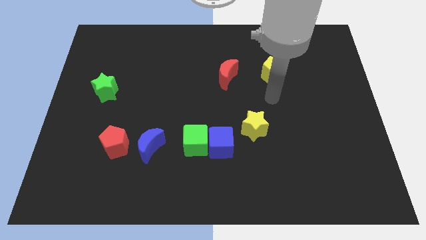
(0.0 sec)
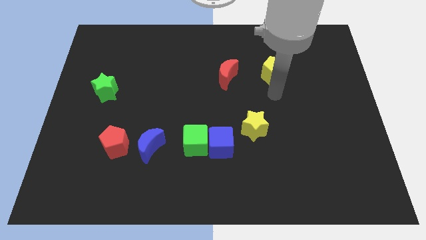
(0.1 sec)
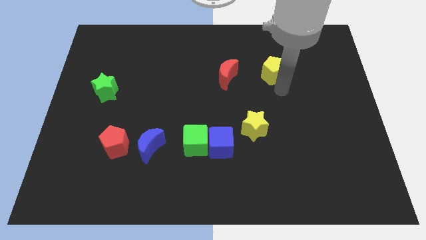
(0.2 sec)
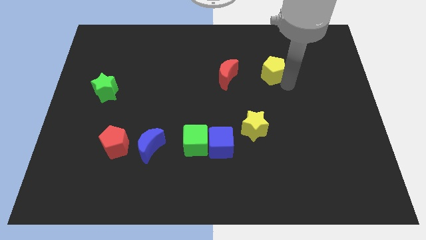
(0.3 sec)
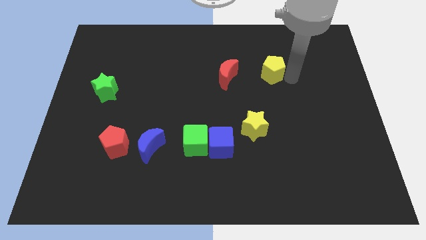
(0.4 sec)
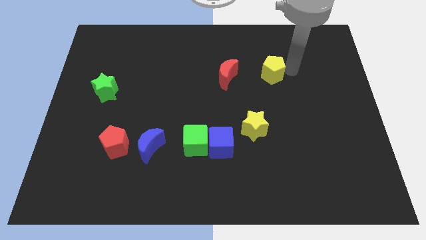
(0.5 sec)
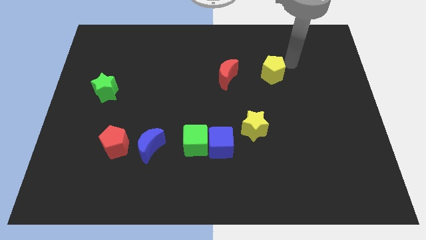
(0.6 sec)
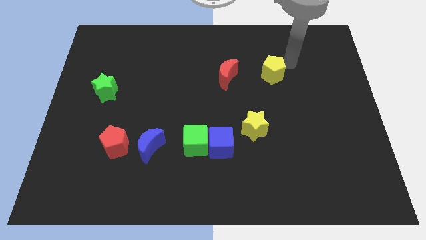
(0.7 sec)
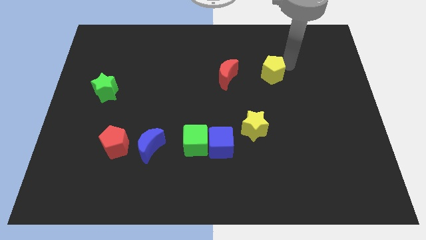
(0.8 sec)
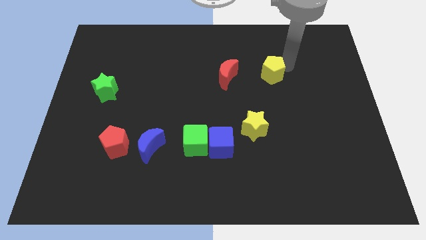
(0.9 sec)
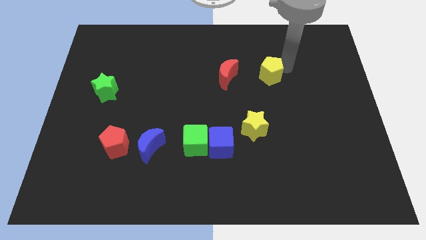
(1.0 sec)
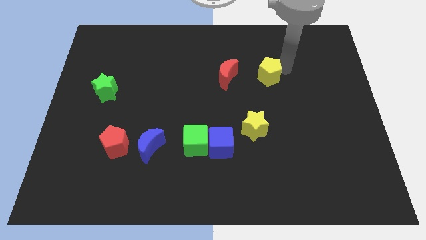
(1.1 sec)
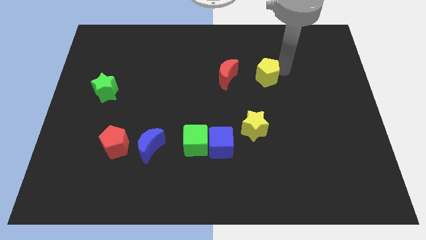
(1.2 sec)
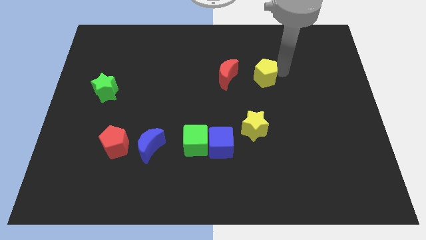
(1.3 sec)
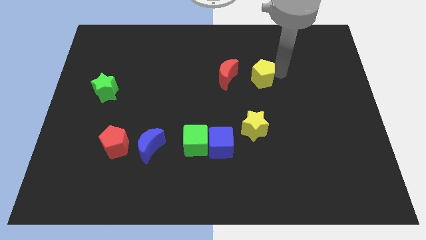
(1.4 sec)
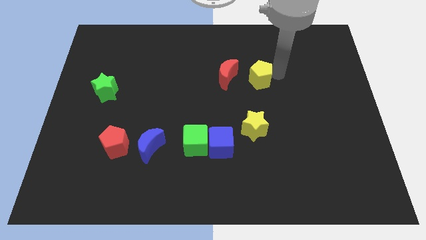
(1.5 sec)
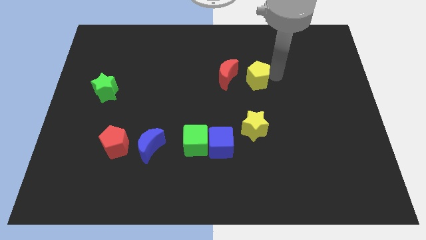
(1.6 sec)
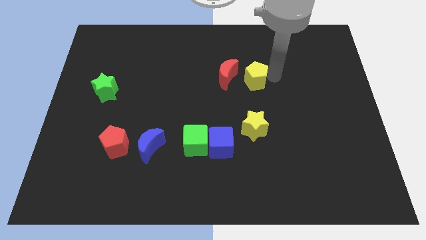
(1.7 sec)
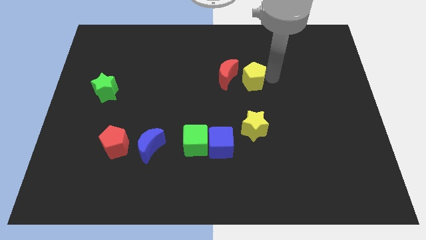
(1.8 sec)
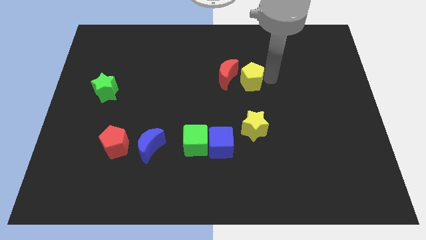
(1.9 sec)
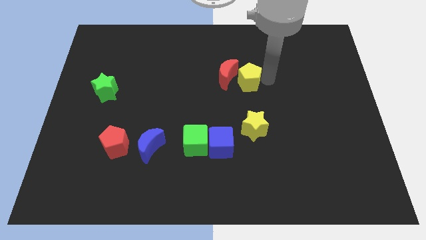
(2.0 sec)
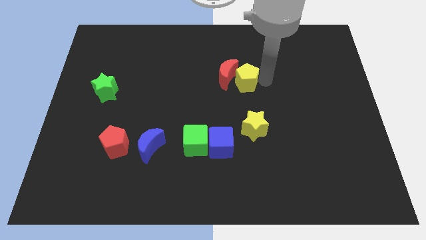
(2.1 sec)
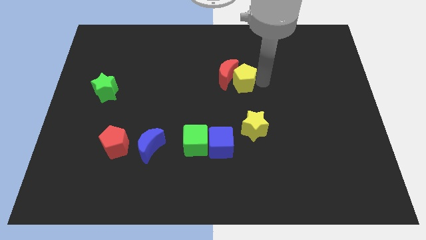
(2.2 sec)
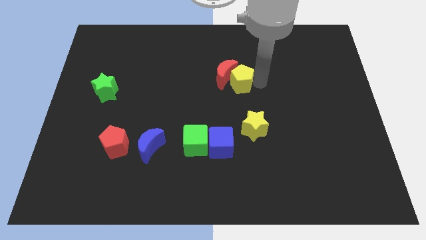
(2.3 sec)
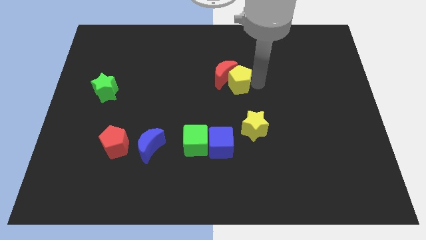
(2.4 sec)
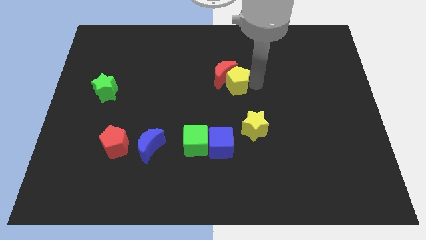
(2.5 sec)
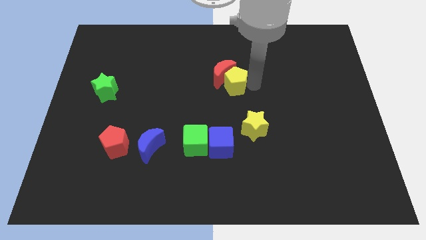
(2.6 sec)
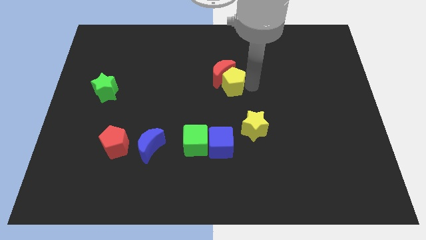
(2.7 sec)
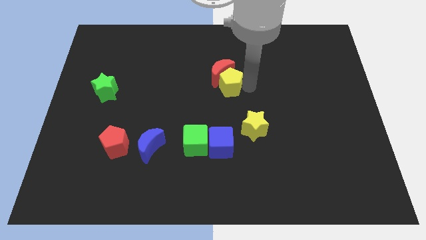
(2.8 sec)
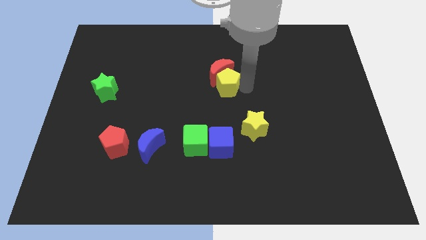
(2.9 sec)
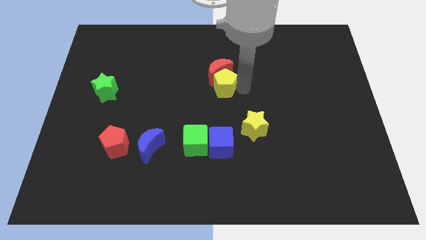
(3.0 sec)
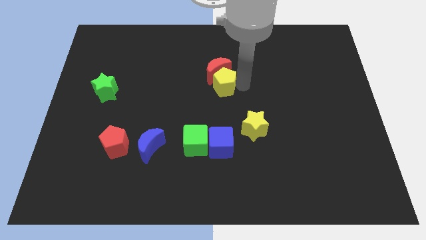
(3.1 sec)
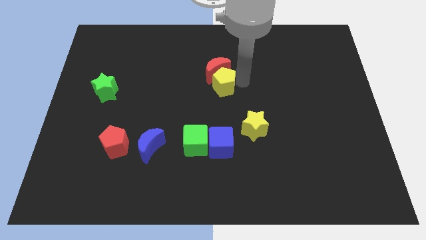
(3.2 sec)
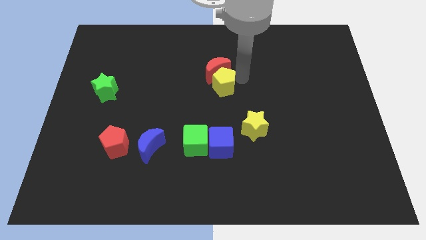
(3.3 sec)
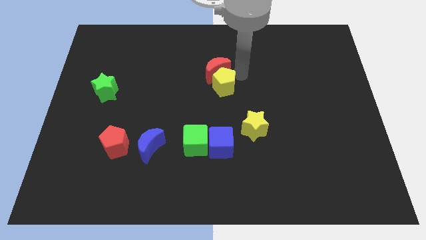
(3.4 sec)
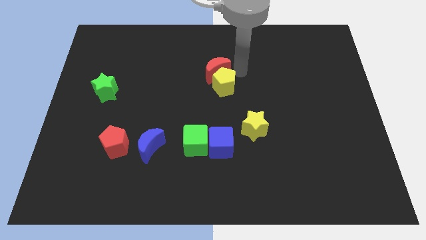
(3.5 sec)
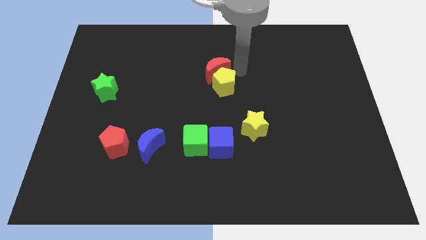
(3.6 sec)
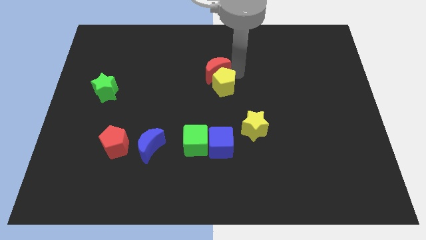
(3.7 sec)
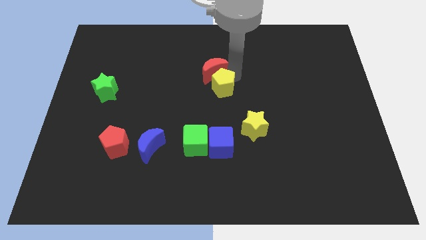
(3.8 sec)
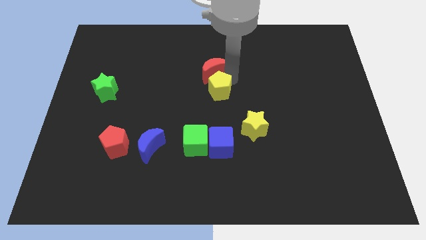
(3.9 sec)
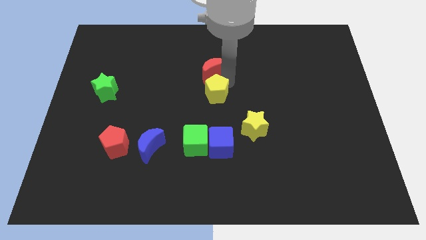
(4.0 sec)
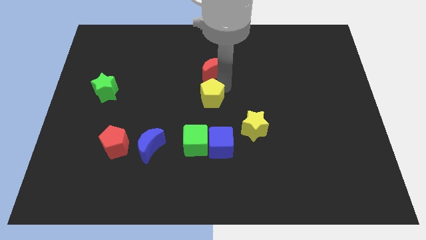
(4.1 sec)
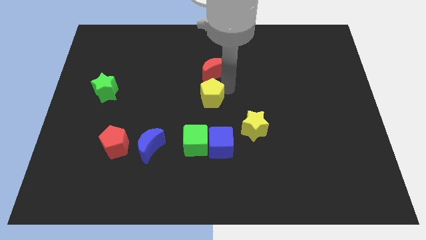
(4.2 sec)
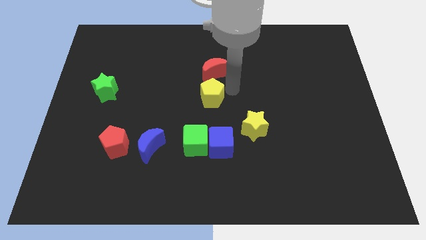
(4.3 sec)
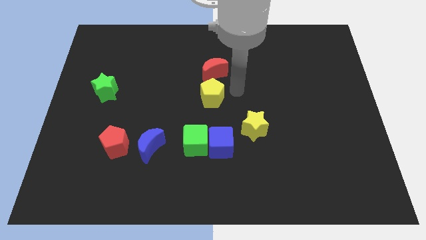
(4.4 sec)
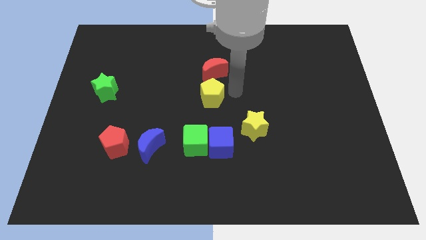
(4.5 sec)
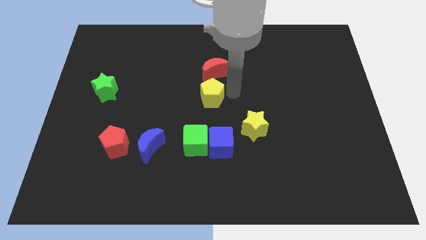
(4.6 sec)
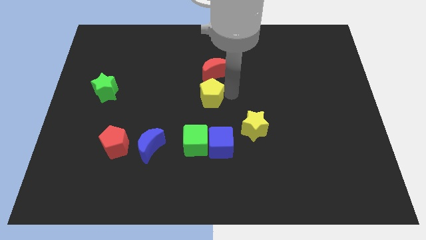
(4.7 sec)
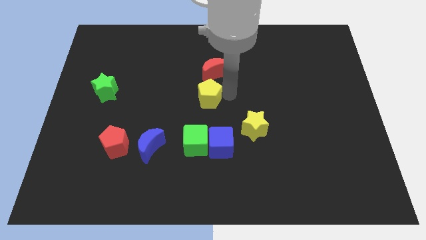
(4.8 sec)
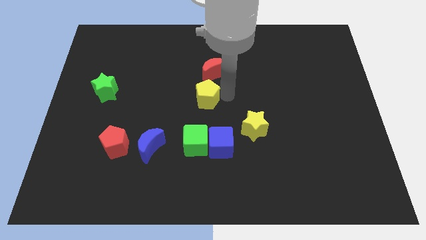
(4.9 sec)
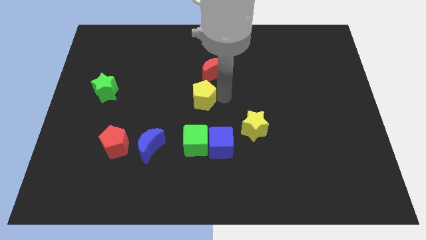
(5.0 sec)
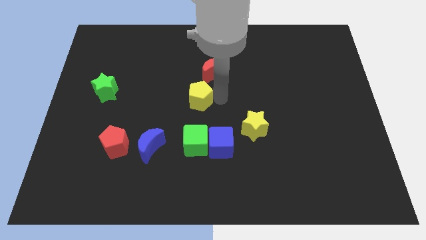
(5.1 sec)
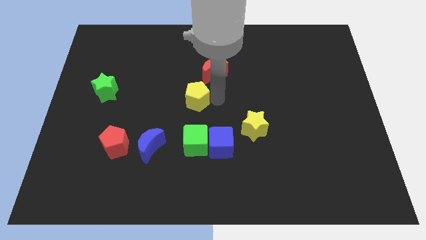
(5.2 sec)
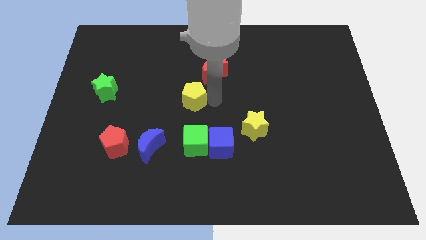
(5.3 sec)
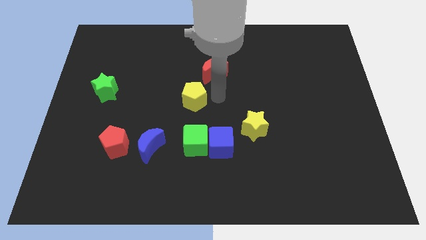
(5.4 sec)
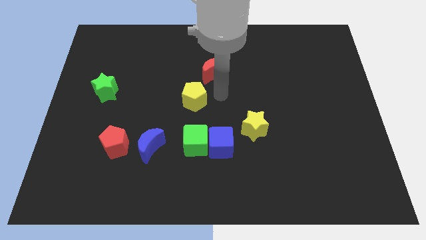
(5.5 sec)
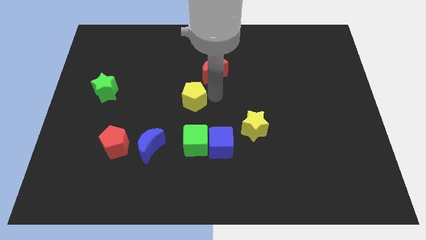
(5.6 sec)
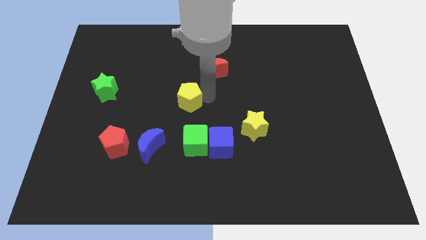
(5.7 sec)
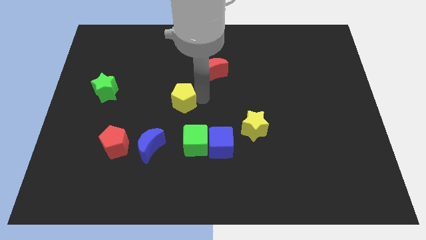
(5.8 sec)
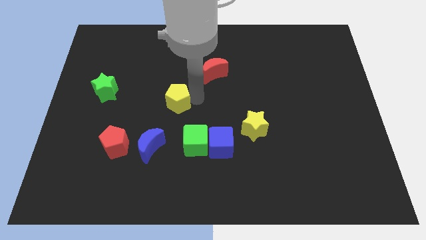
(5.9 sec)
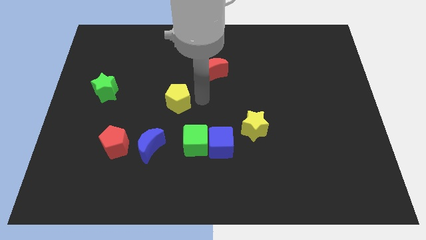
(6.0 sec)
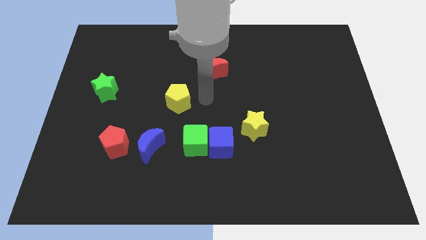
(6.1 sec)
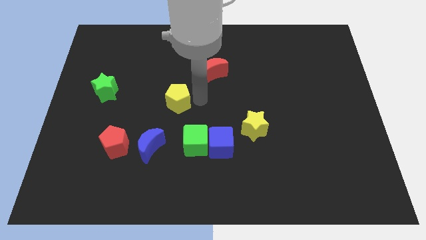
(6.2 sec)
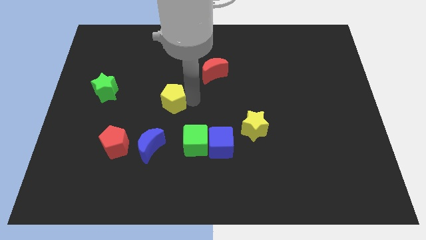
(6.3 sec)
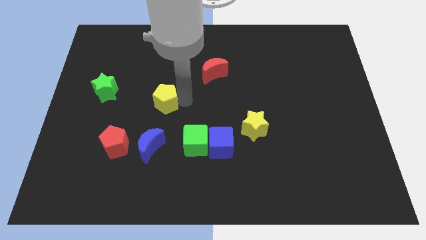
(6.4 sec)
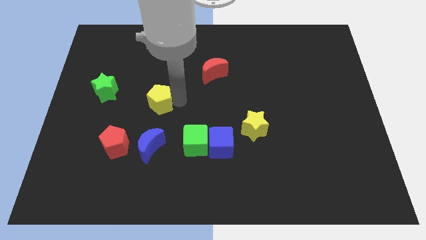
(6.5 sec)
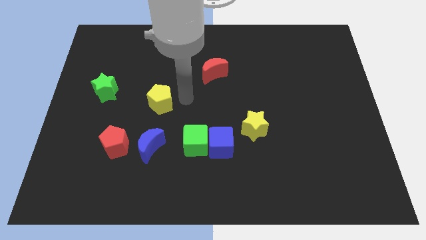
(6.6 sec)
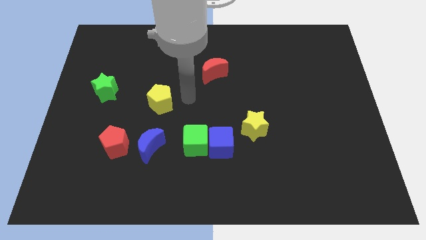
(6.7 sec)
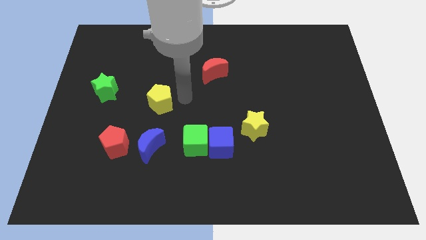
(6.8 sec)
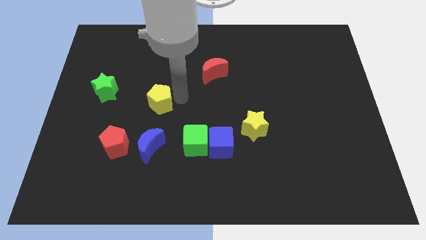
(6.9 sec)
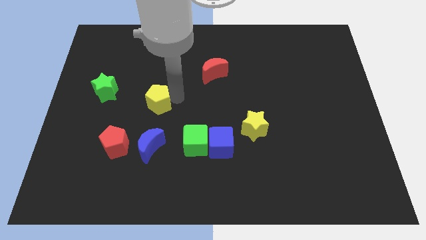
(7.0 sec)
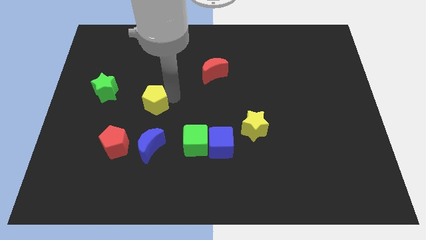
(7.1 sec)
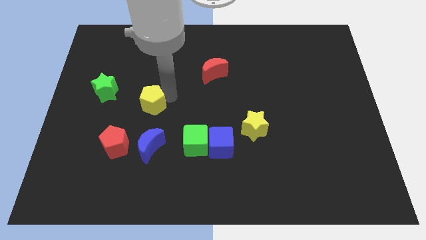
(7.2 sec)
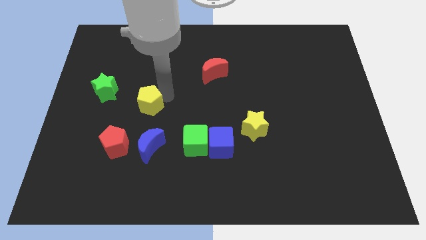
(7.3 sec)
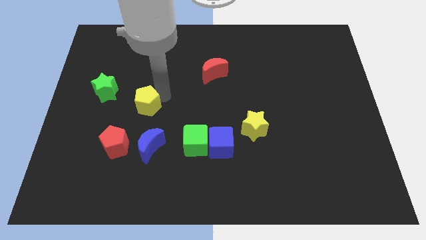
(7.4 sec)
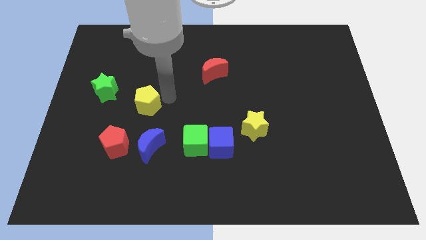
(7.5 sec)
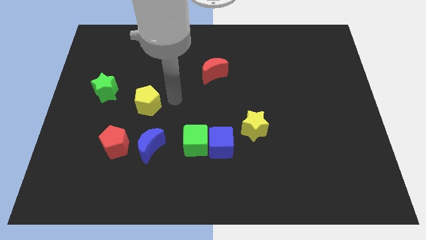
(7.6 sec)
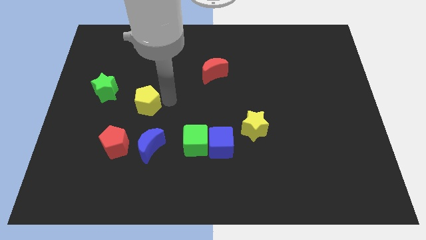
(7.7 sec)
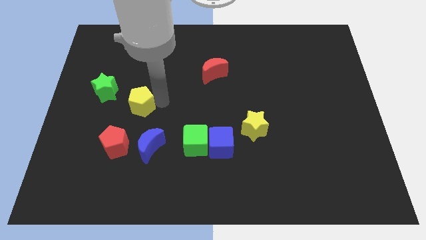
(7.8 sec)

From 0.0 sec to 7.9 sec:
move the yellow pentagon to the top of the red pentagon
